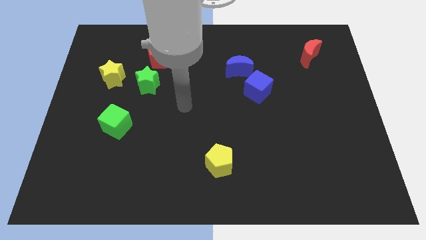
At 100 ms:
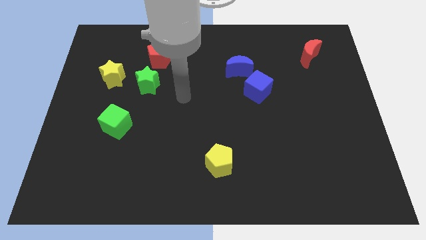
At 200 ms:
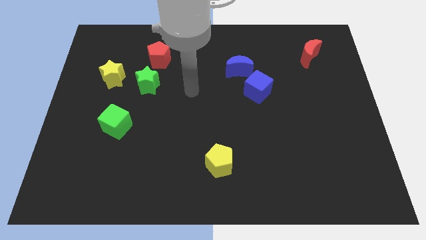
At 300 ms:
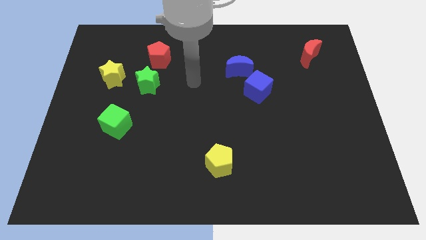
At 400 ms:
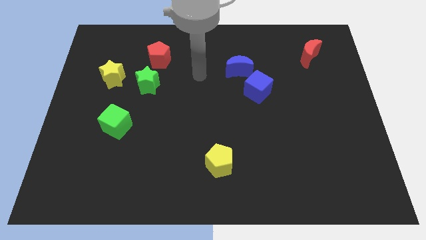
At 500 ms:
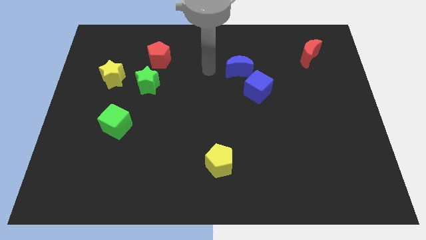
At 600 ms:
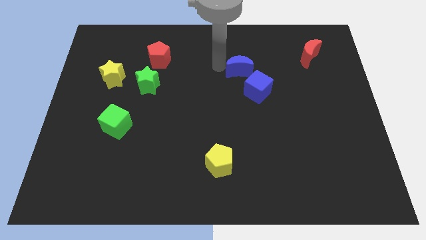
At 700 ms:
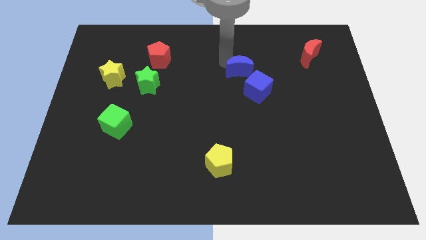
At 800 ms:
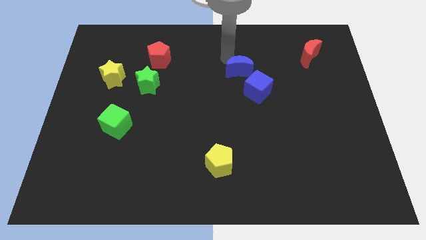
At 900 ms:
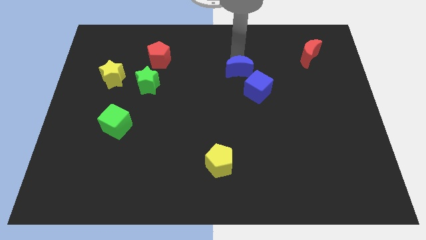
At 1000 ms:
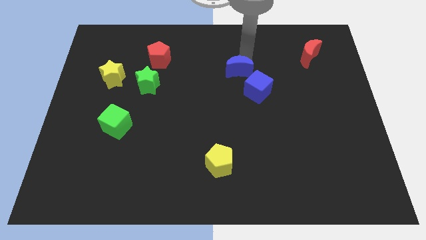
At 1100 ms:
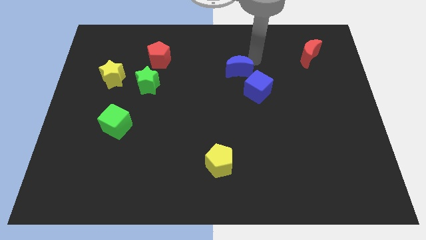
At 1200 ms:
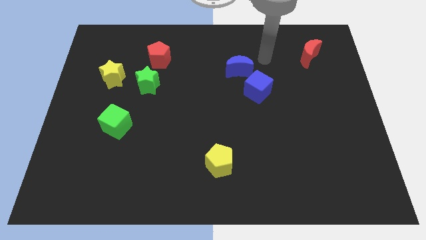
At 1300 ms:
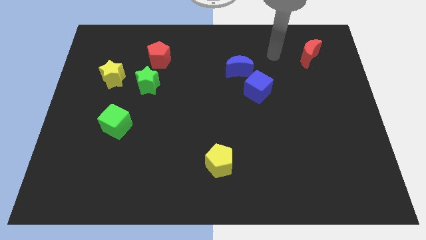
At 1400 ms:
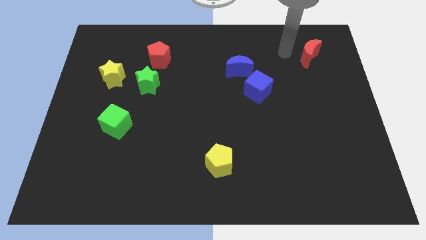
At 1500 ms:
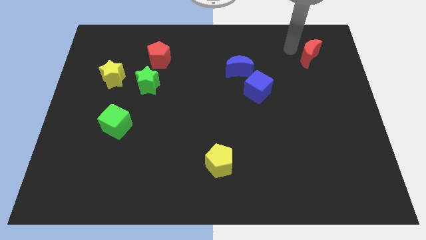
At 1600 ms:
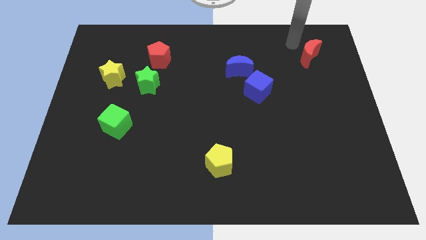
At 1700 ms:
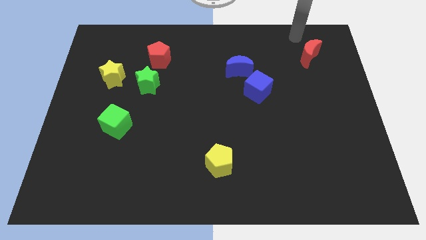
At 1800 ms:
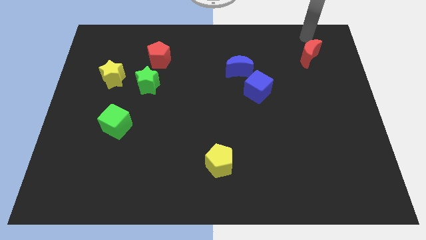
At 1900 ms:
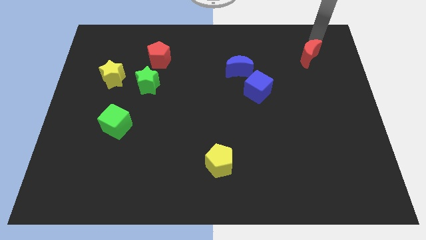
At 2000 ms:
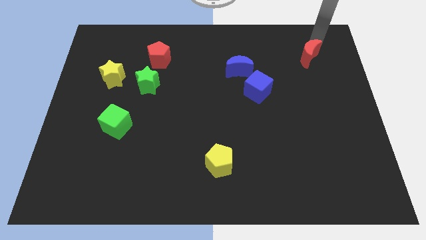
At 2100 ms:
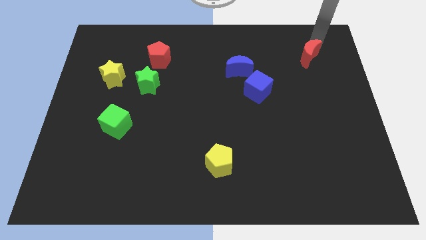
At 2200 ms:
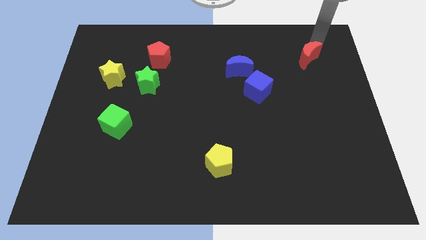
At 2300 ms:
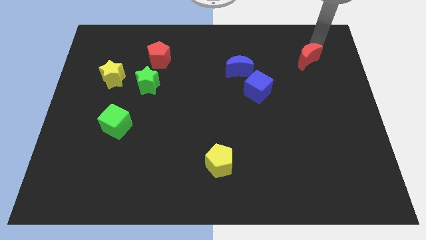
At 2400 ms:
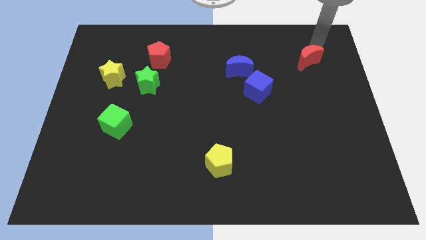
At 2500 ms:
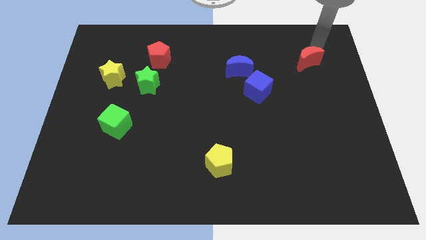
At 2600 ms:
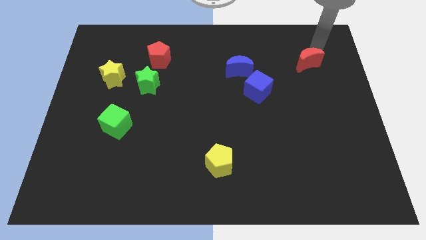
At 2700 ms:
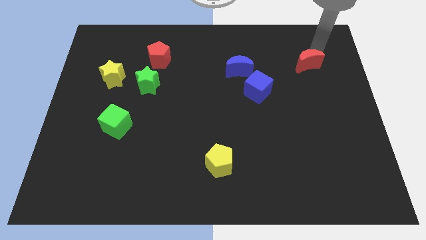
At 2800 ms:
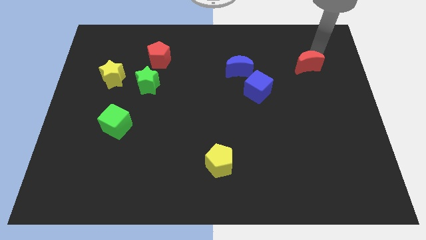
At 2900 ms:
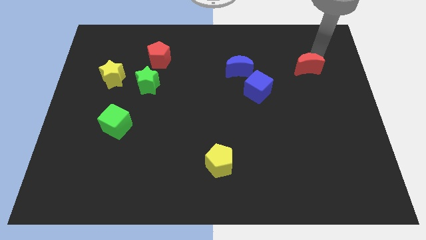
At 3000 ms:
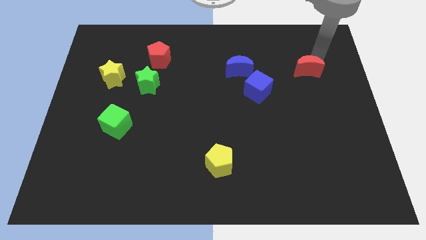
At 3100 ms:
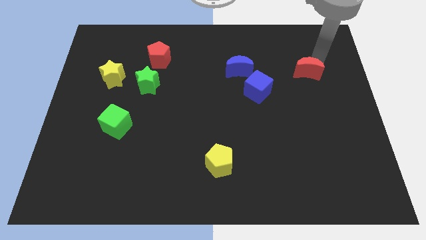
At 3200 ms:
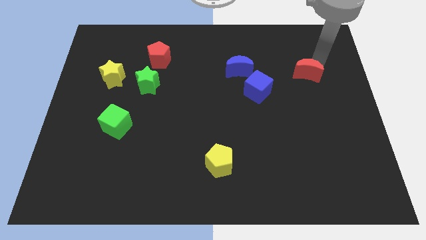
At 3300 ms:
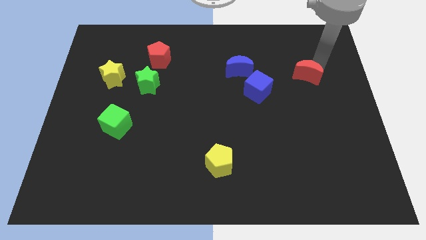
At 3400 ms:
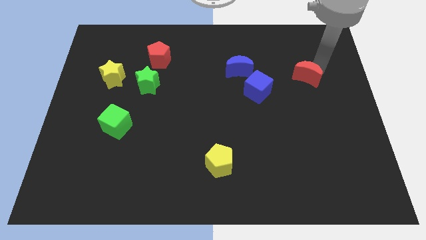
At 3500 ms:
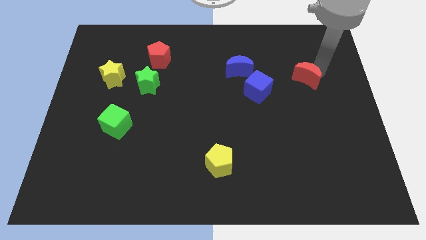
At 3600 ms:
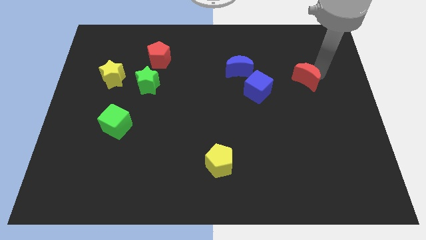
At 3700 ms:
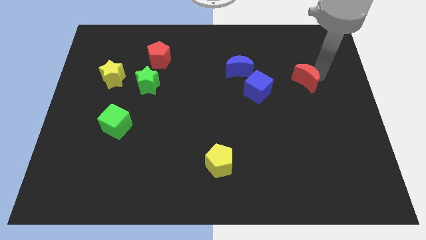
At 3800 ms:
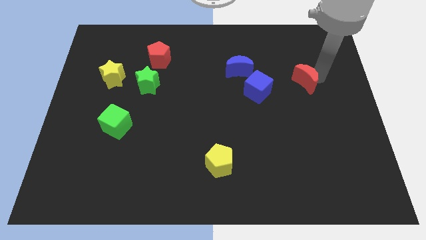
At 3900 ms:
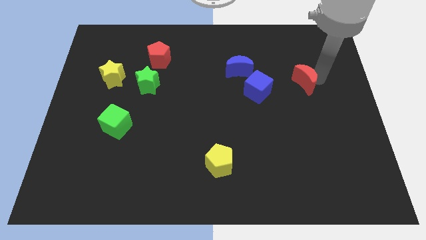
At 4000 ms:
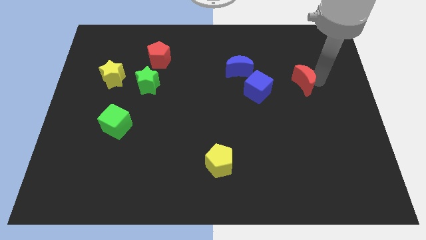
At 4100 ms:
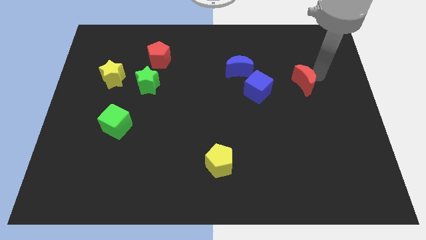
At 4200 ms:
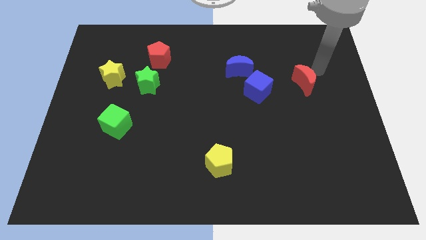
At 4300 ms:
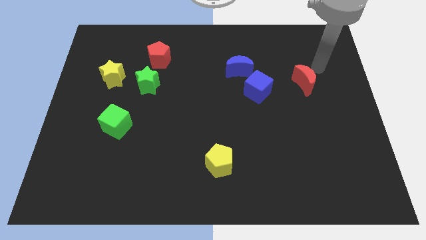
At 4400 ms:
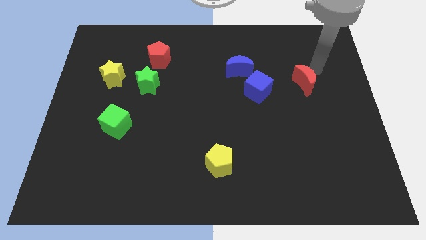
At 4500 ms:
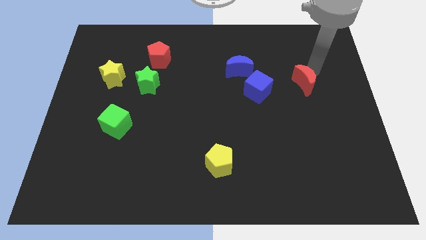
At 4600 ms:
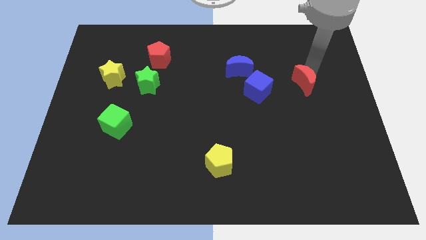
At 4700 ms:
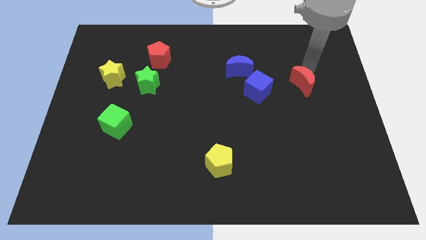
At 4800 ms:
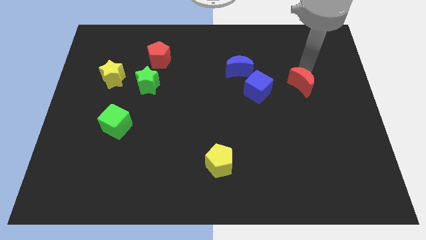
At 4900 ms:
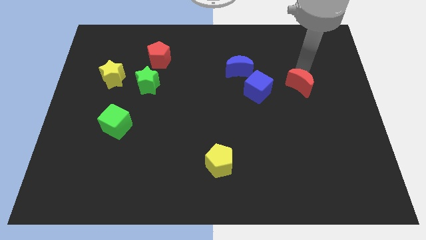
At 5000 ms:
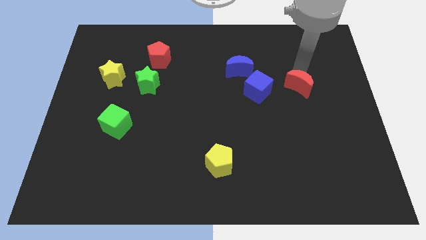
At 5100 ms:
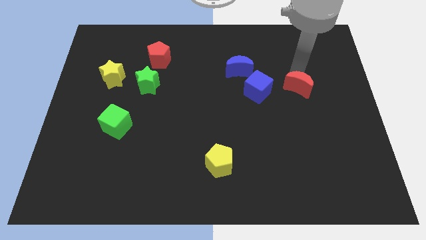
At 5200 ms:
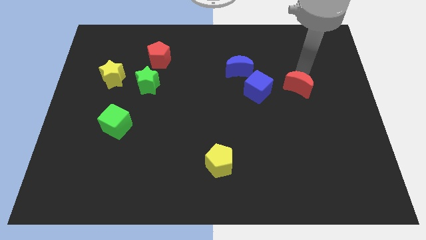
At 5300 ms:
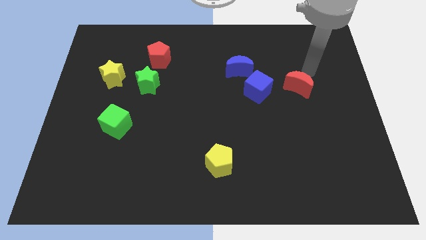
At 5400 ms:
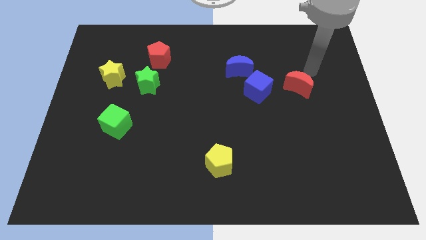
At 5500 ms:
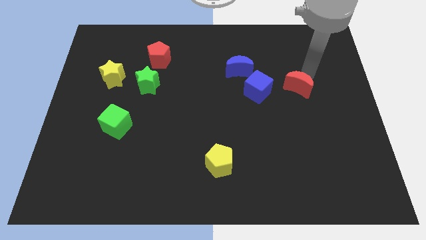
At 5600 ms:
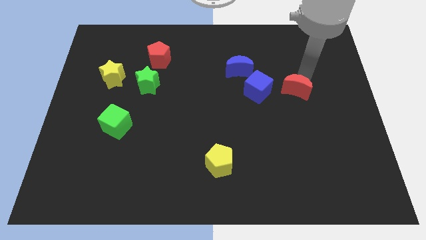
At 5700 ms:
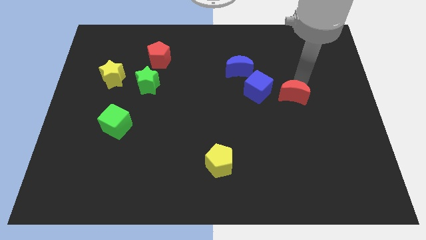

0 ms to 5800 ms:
slide the red moon diagonally down and to the right of the blue cube

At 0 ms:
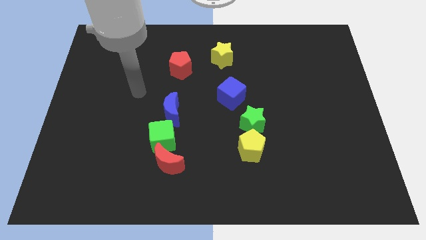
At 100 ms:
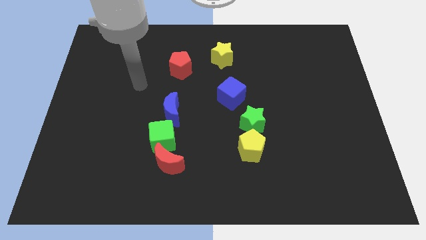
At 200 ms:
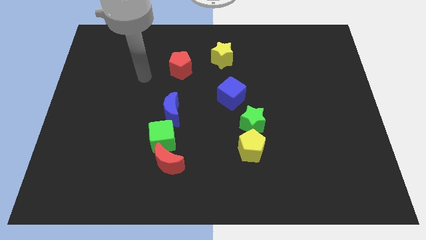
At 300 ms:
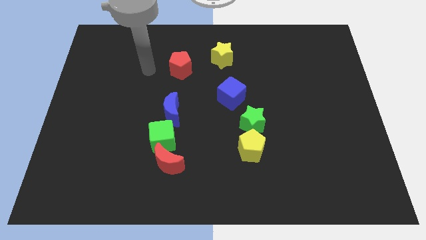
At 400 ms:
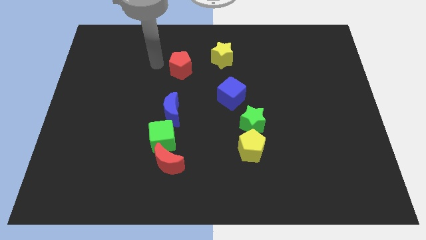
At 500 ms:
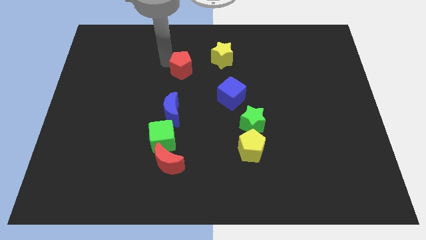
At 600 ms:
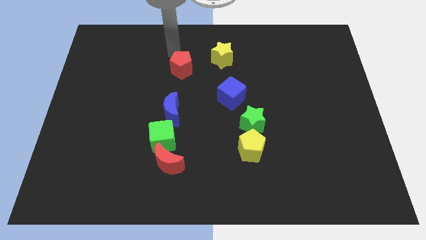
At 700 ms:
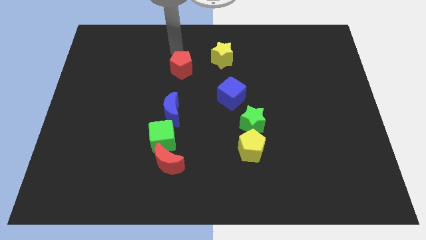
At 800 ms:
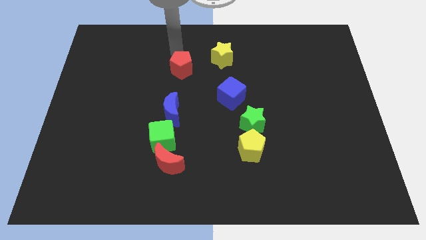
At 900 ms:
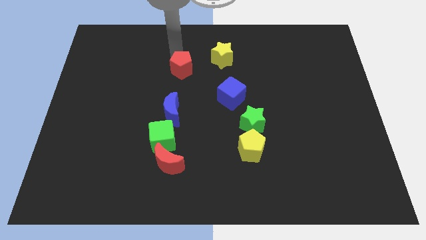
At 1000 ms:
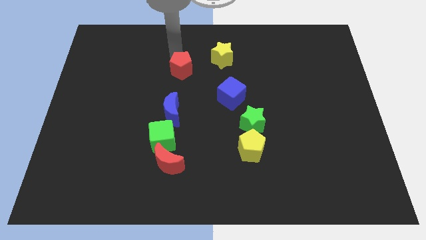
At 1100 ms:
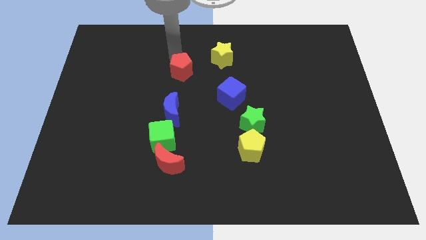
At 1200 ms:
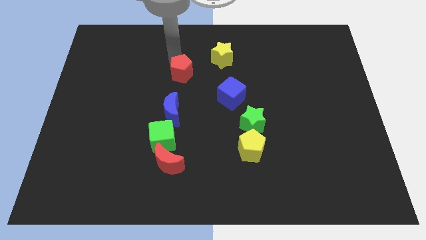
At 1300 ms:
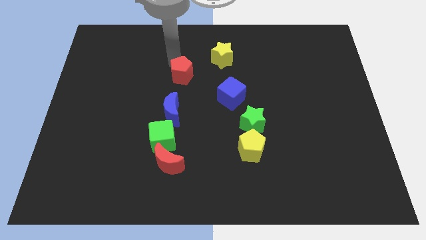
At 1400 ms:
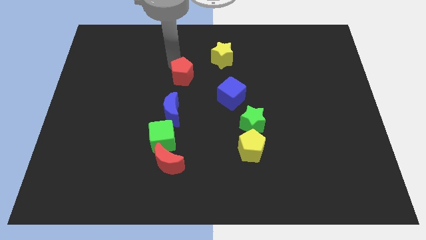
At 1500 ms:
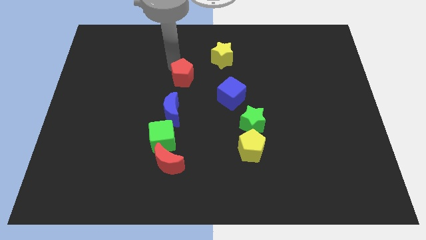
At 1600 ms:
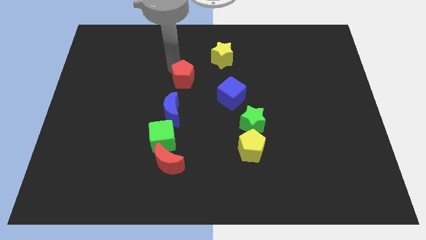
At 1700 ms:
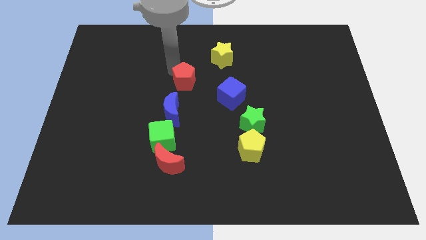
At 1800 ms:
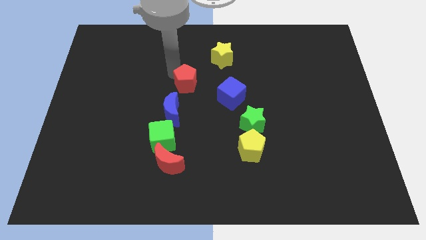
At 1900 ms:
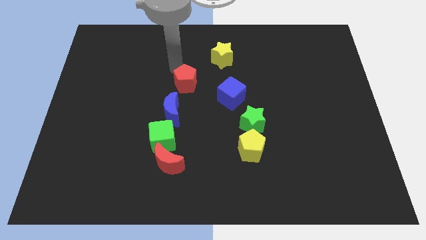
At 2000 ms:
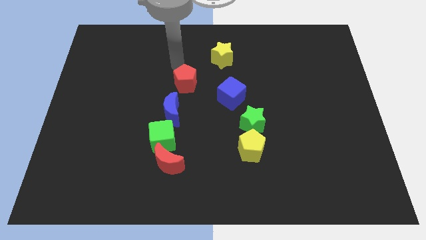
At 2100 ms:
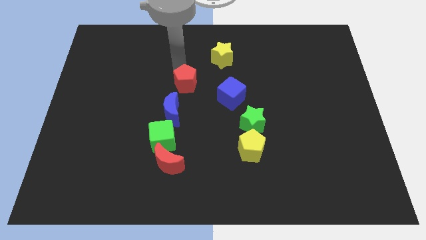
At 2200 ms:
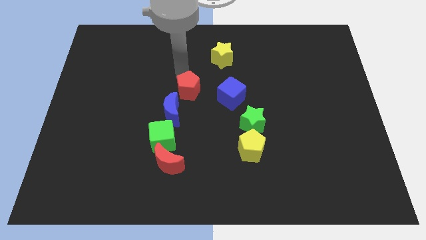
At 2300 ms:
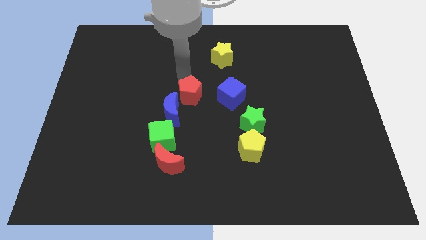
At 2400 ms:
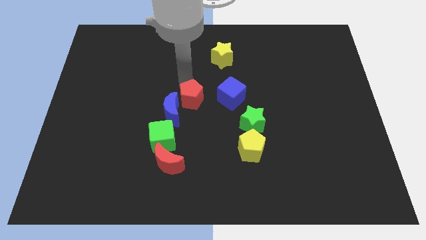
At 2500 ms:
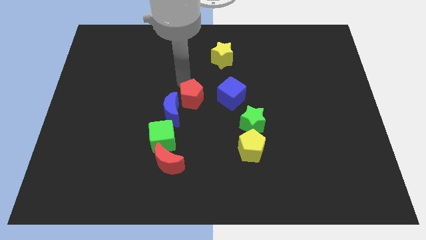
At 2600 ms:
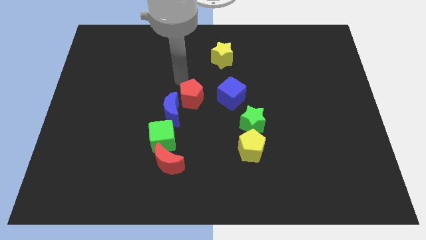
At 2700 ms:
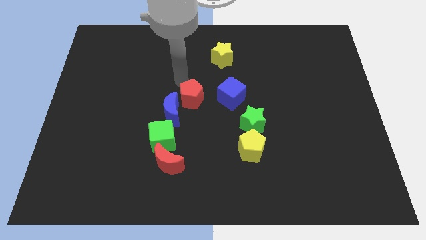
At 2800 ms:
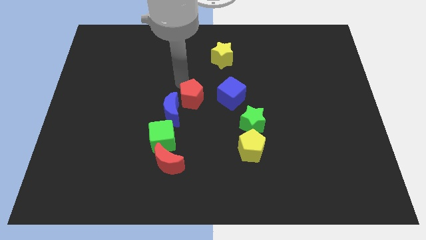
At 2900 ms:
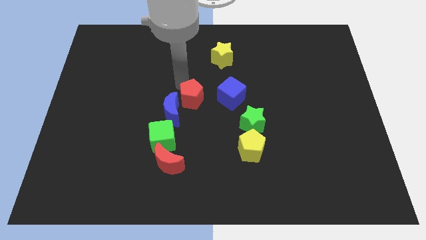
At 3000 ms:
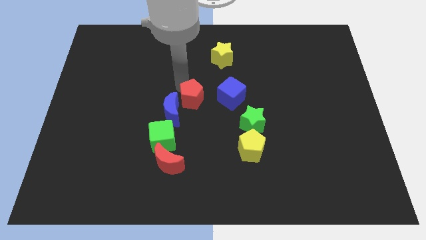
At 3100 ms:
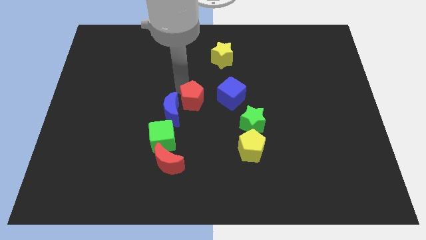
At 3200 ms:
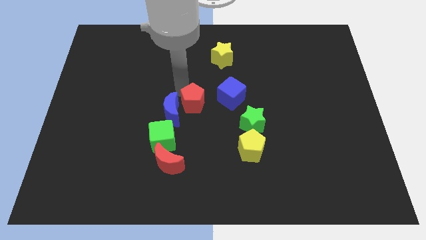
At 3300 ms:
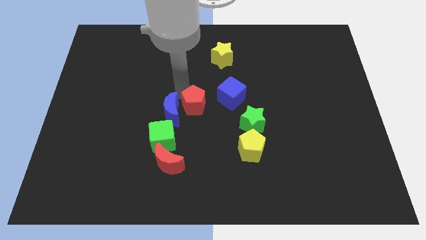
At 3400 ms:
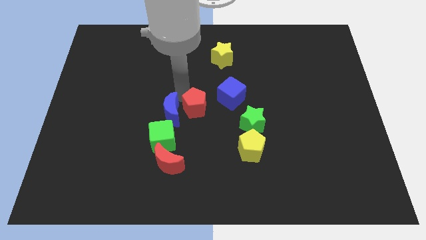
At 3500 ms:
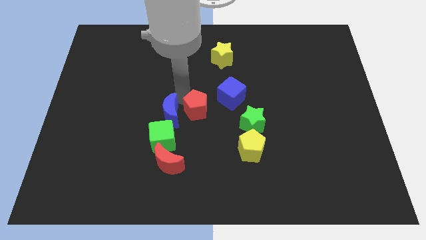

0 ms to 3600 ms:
put the red pentagon just left of the green star
